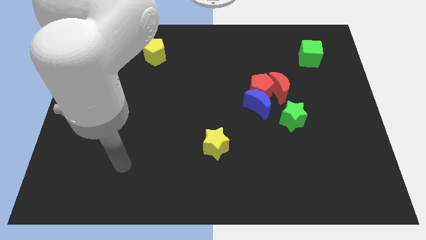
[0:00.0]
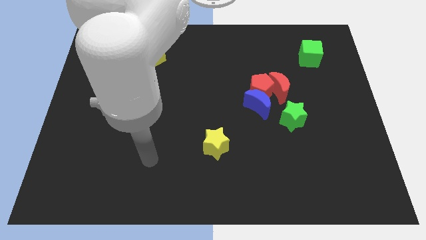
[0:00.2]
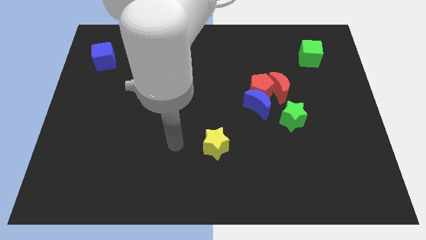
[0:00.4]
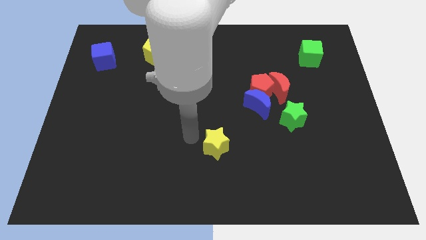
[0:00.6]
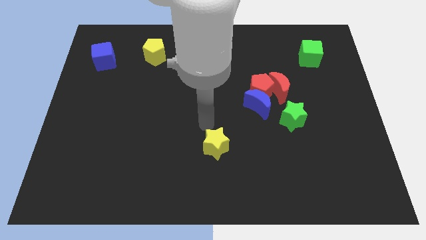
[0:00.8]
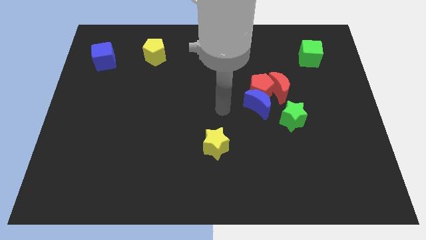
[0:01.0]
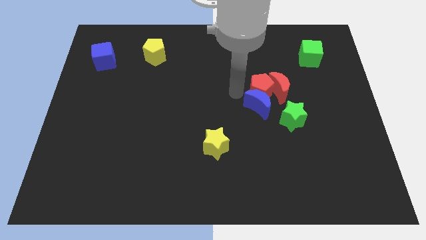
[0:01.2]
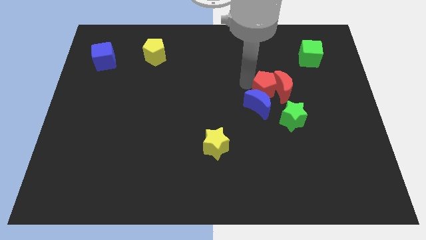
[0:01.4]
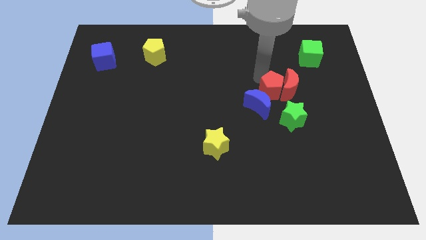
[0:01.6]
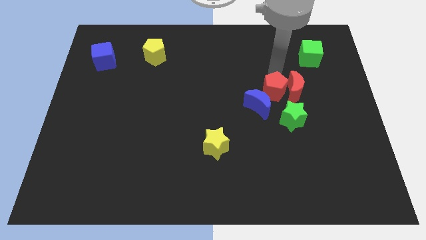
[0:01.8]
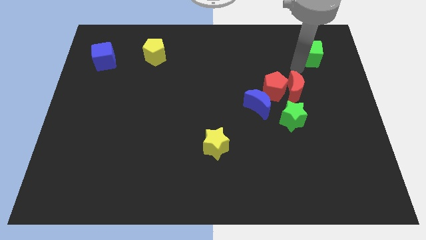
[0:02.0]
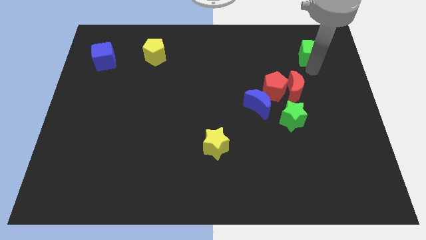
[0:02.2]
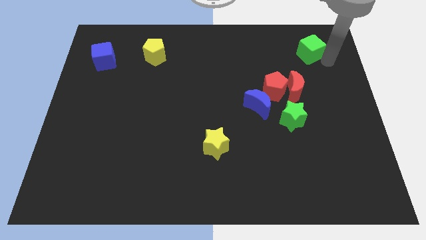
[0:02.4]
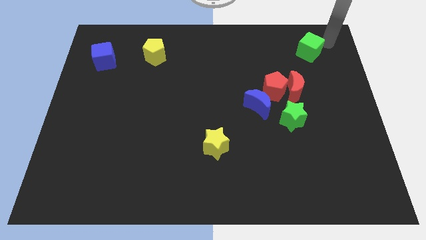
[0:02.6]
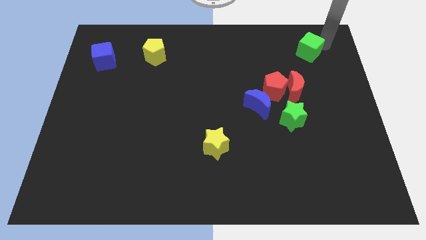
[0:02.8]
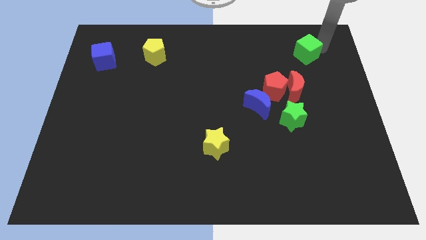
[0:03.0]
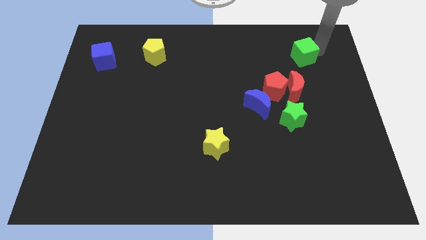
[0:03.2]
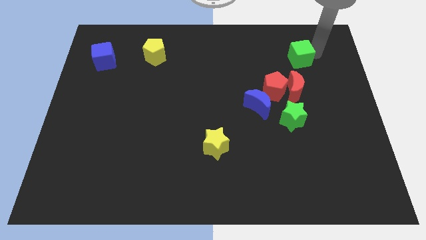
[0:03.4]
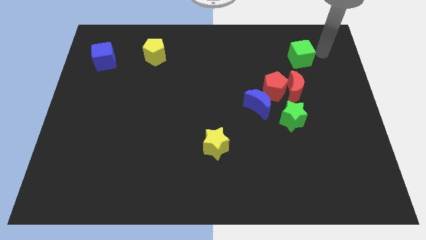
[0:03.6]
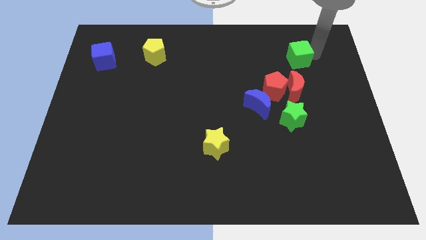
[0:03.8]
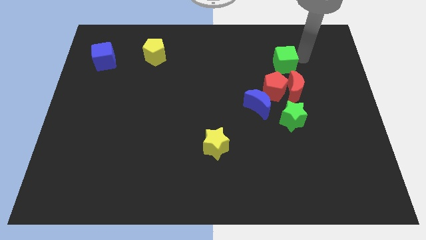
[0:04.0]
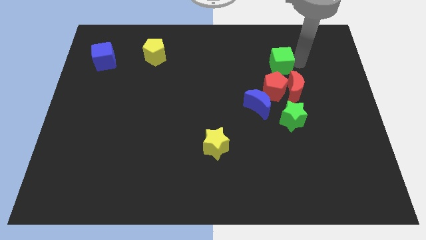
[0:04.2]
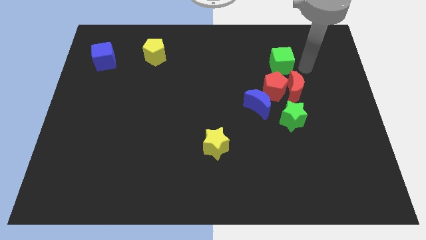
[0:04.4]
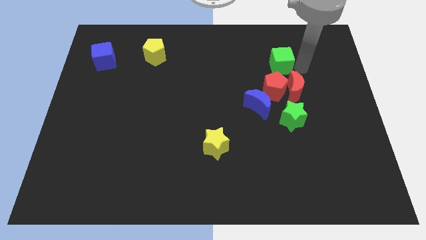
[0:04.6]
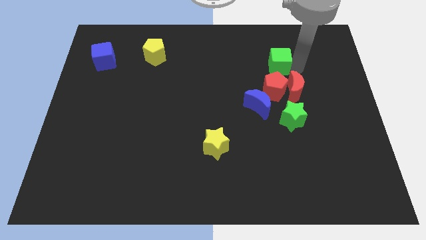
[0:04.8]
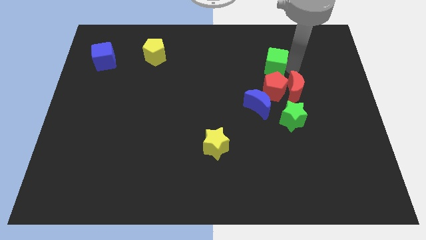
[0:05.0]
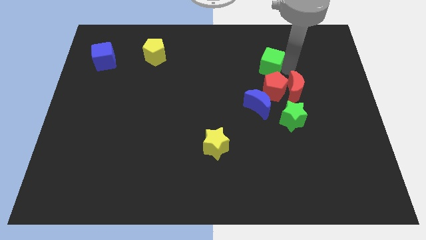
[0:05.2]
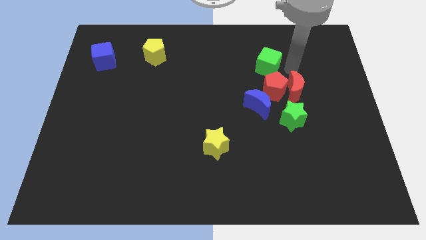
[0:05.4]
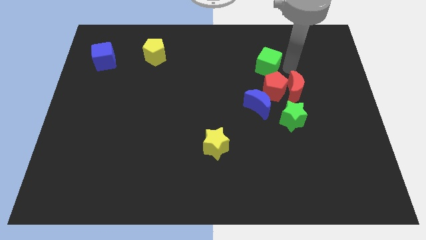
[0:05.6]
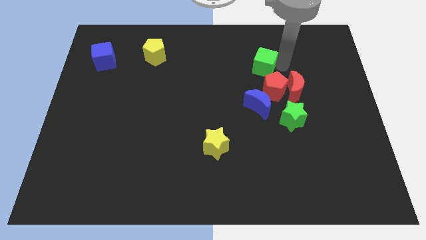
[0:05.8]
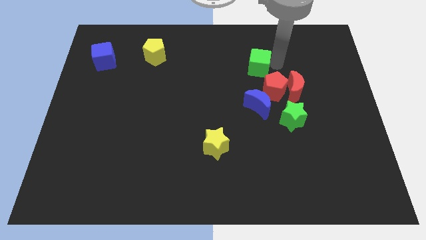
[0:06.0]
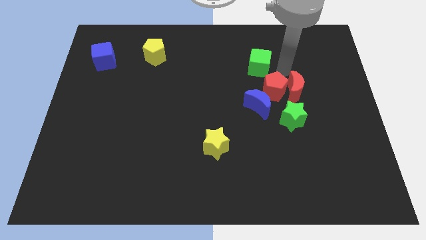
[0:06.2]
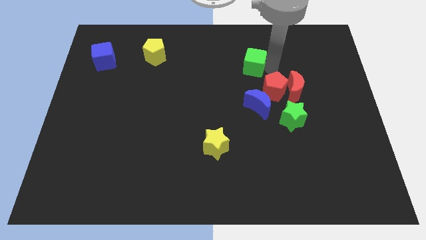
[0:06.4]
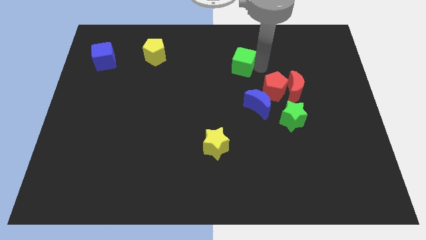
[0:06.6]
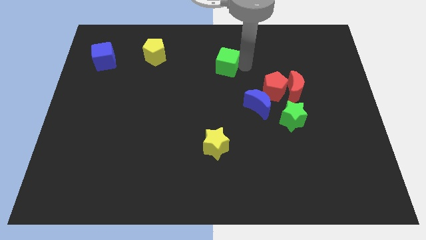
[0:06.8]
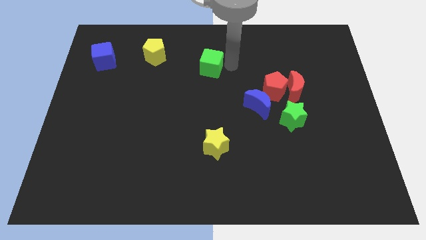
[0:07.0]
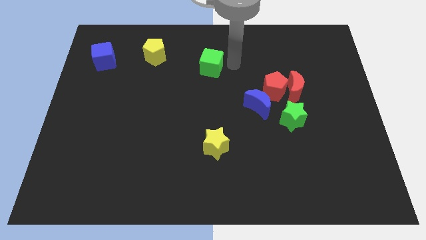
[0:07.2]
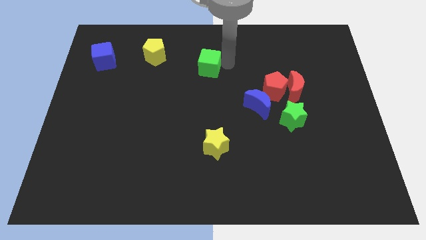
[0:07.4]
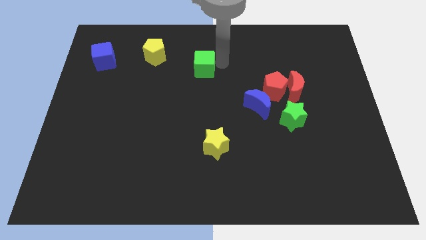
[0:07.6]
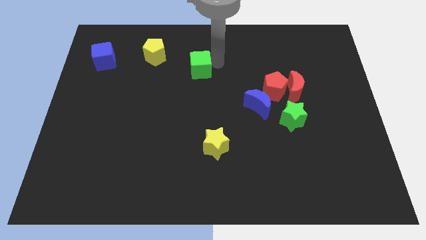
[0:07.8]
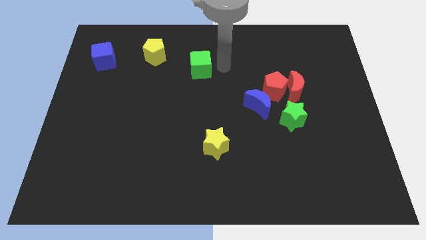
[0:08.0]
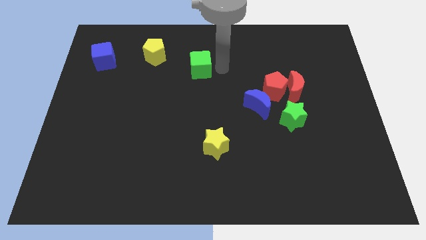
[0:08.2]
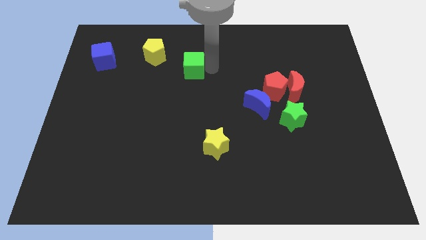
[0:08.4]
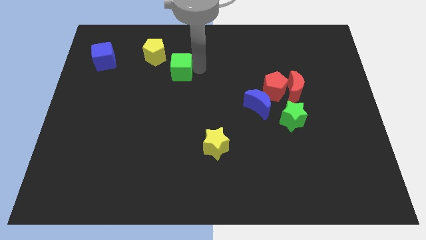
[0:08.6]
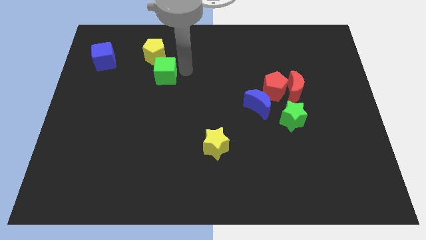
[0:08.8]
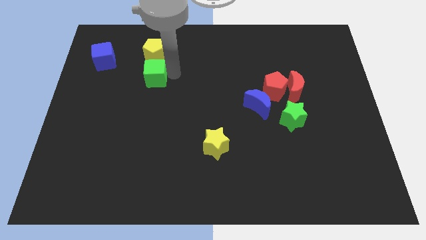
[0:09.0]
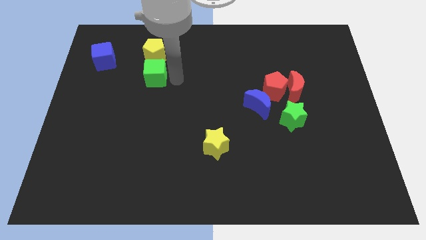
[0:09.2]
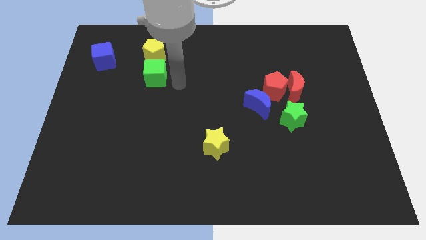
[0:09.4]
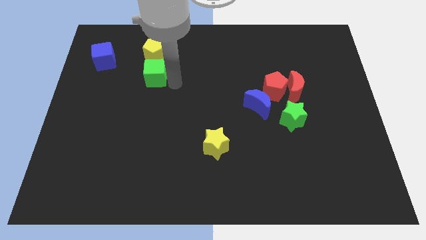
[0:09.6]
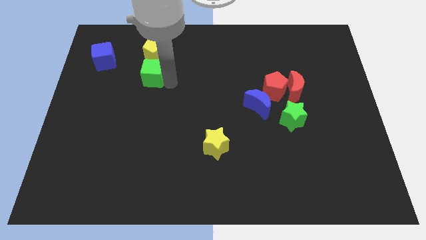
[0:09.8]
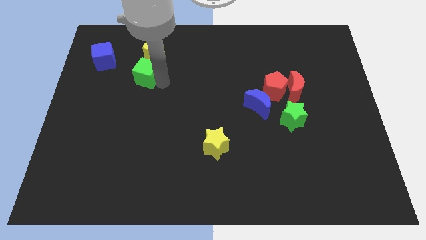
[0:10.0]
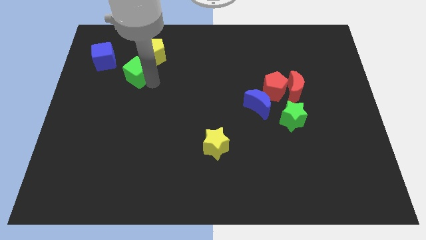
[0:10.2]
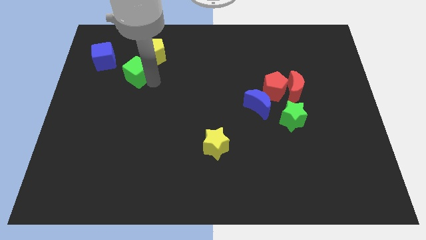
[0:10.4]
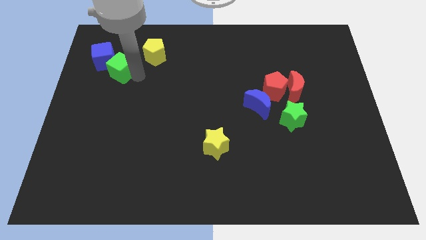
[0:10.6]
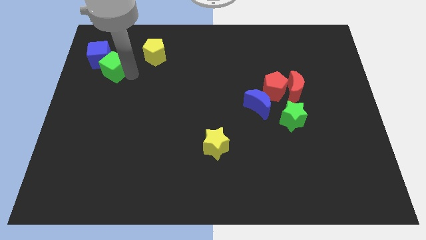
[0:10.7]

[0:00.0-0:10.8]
push the green cube to the blue cube

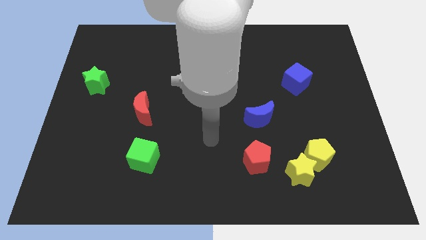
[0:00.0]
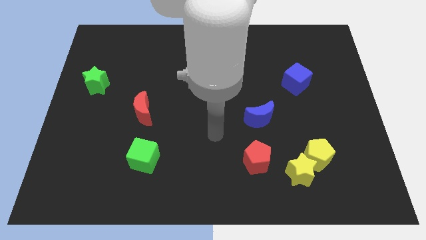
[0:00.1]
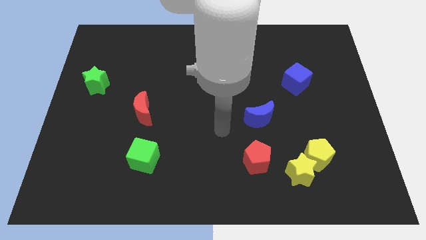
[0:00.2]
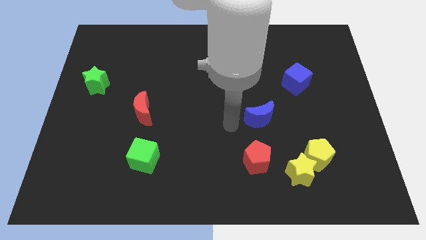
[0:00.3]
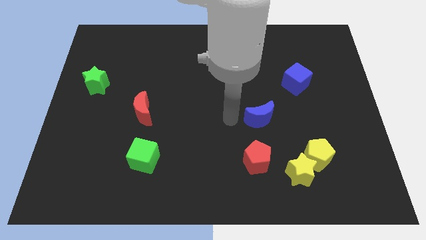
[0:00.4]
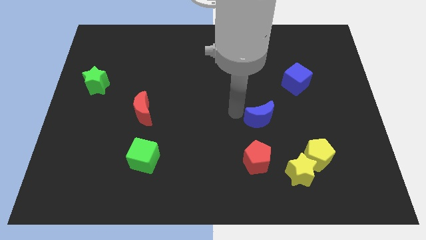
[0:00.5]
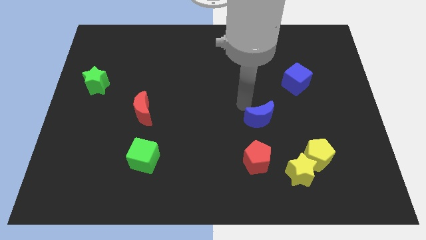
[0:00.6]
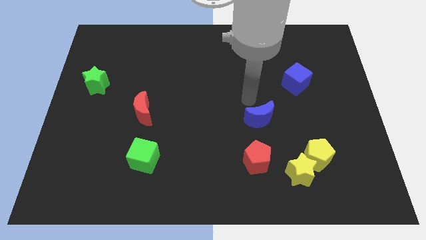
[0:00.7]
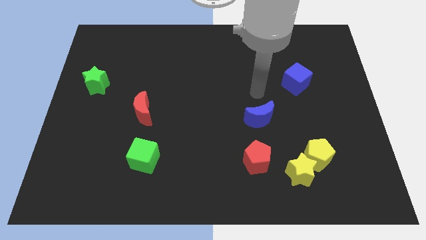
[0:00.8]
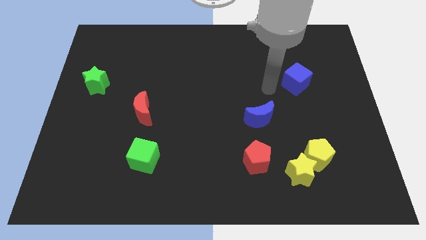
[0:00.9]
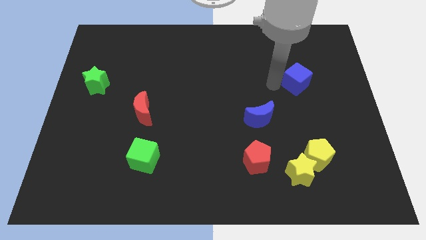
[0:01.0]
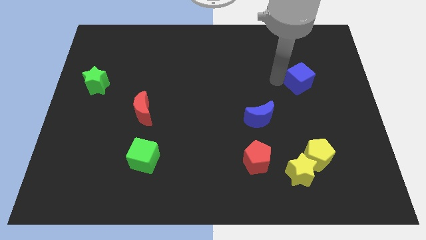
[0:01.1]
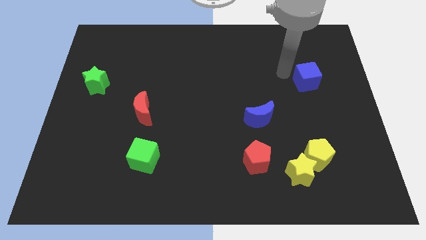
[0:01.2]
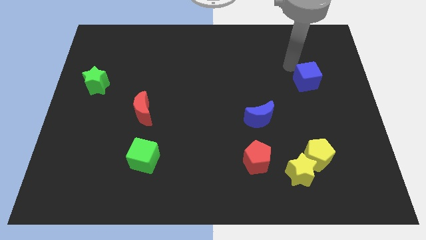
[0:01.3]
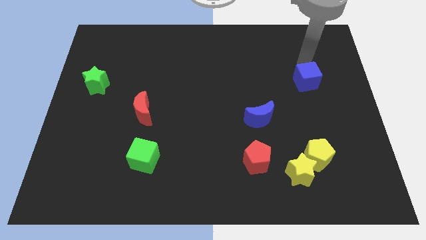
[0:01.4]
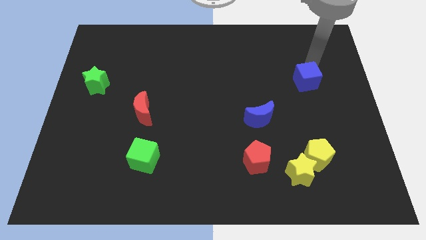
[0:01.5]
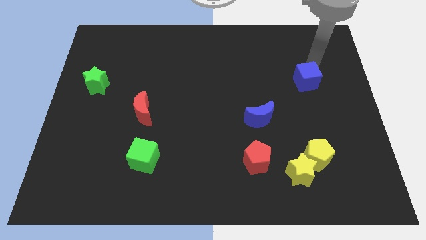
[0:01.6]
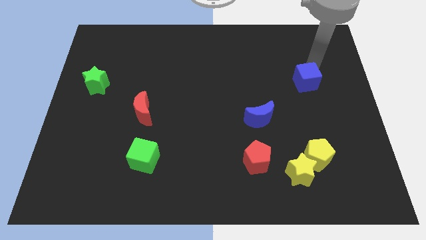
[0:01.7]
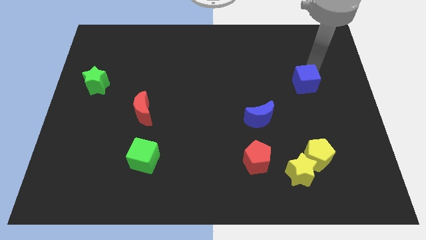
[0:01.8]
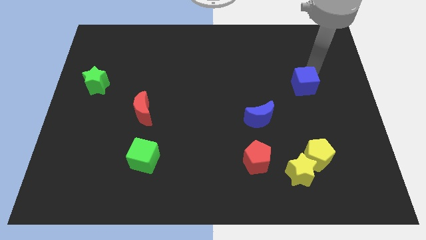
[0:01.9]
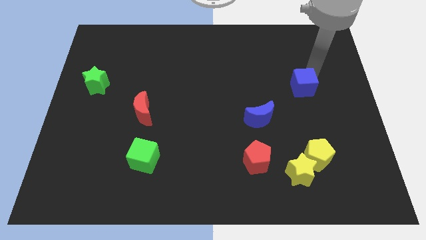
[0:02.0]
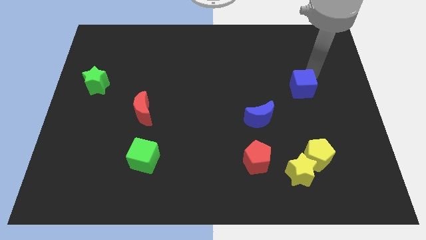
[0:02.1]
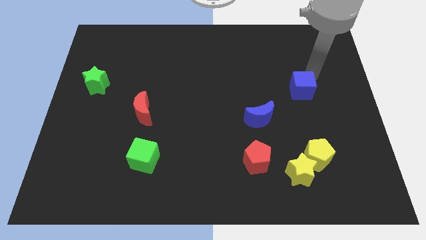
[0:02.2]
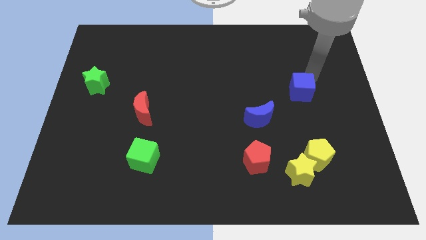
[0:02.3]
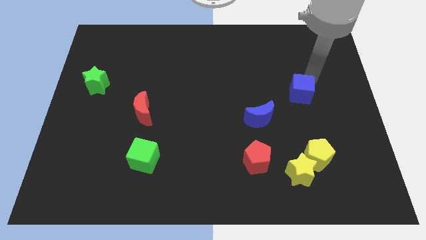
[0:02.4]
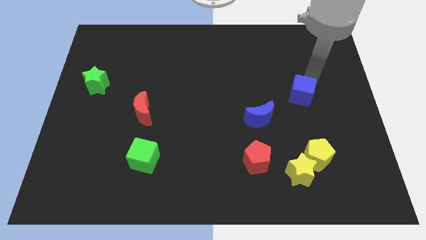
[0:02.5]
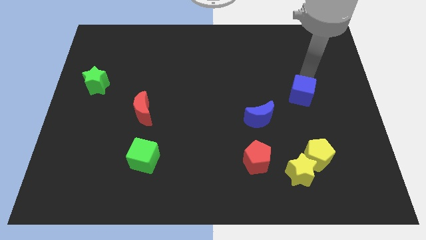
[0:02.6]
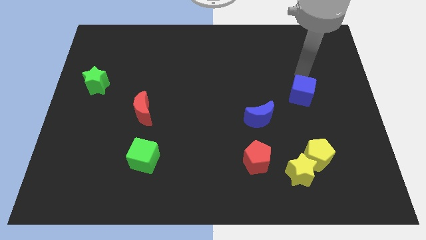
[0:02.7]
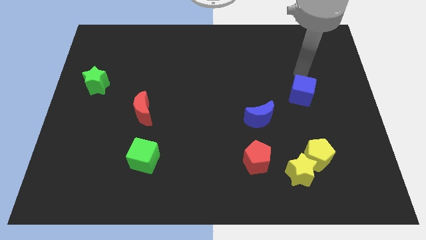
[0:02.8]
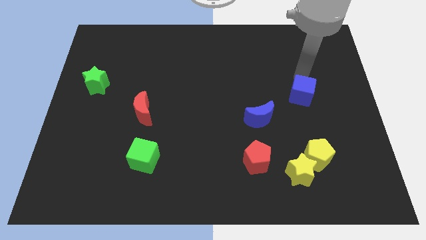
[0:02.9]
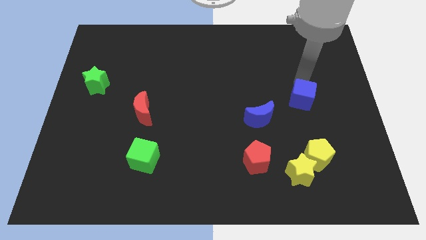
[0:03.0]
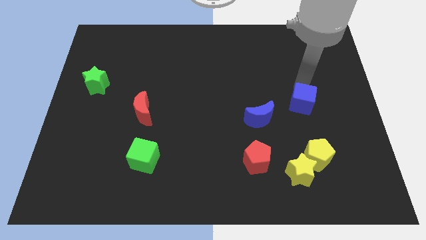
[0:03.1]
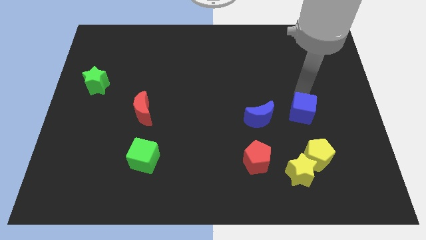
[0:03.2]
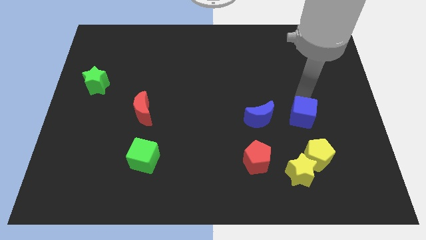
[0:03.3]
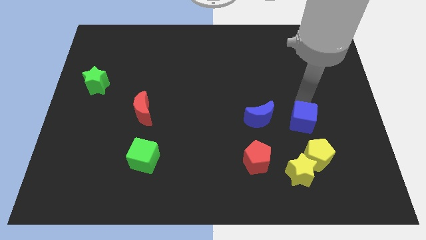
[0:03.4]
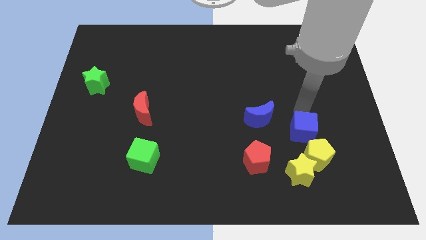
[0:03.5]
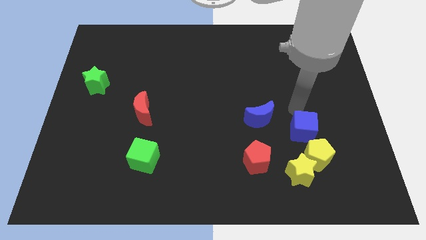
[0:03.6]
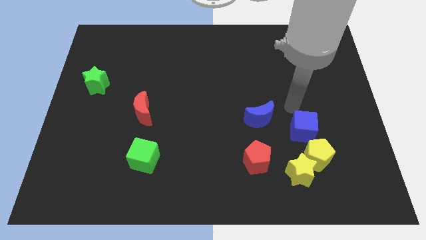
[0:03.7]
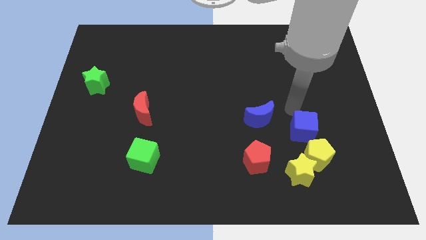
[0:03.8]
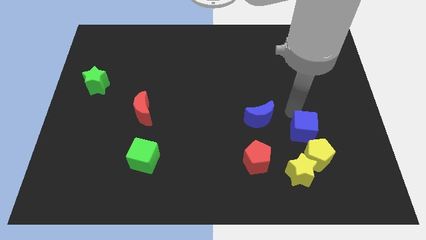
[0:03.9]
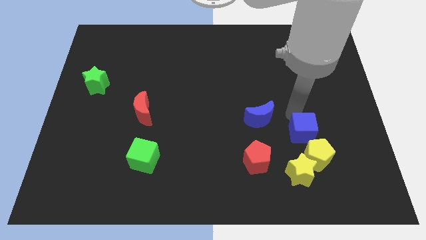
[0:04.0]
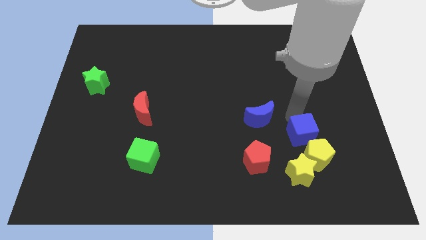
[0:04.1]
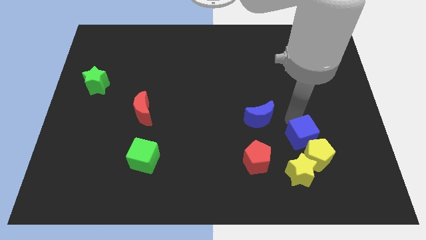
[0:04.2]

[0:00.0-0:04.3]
put the blue cube close to the yellow pentagon
